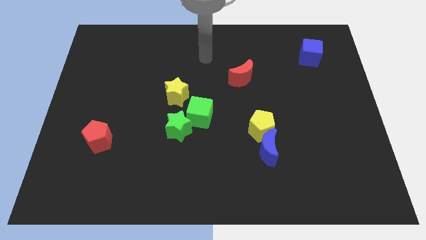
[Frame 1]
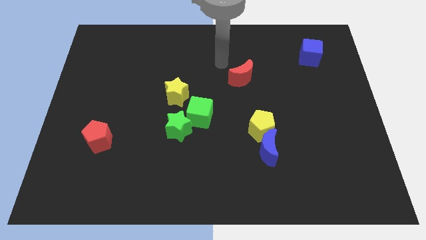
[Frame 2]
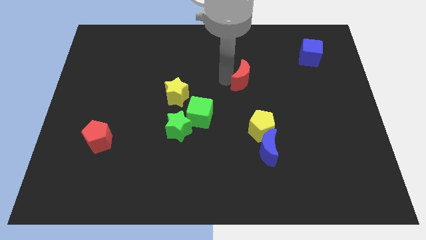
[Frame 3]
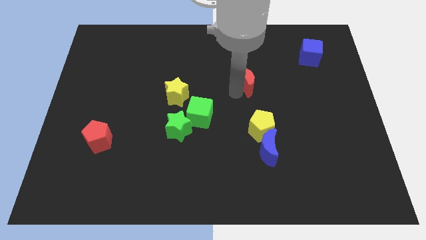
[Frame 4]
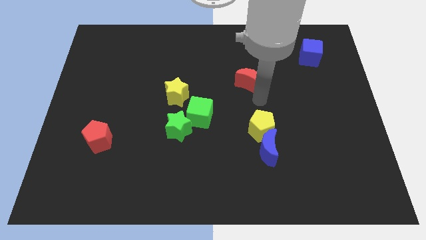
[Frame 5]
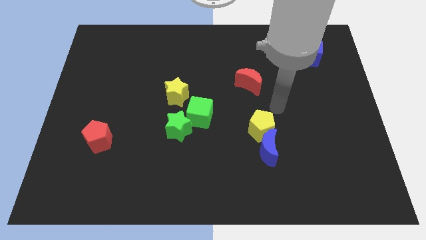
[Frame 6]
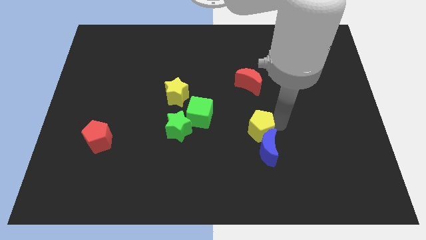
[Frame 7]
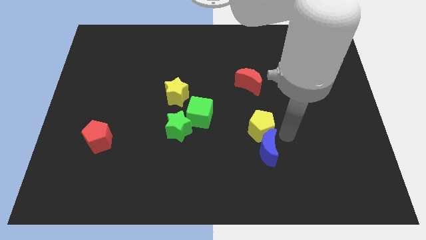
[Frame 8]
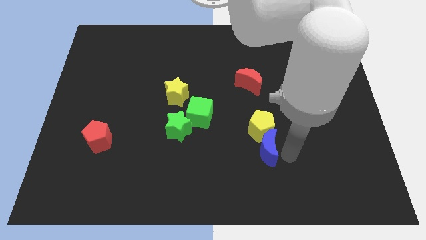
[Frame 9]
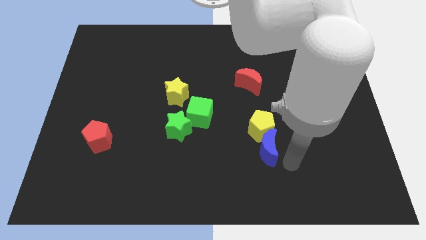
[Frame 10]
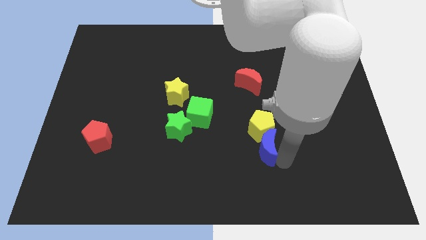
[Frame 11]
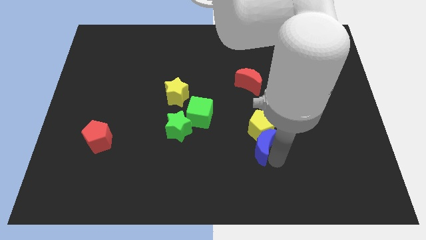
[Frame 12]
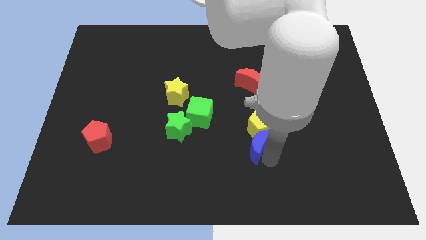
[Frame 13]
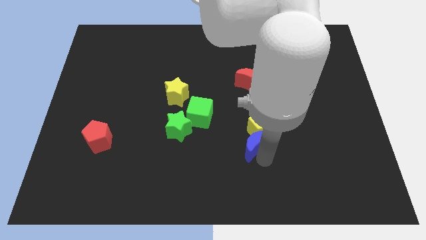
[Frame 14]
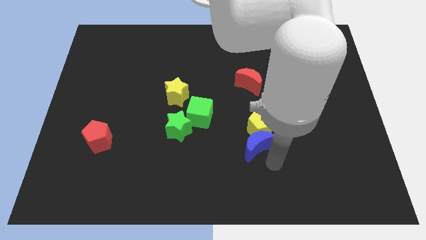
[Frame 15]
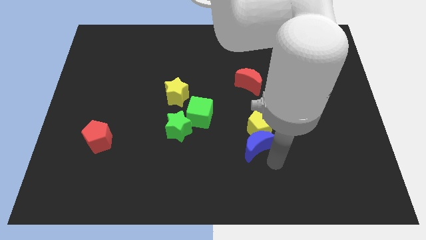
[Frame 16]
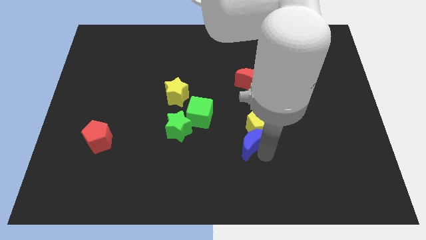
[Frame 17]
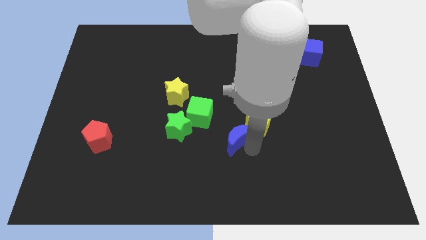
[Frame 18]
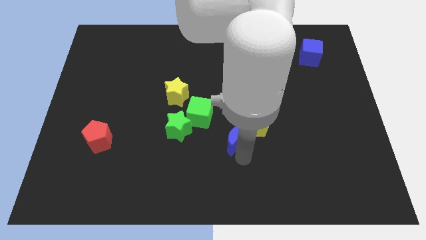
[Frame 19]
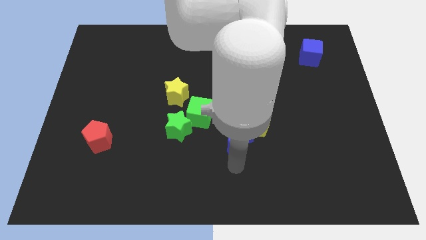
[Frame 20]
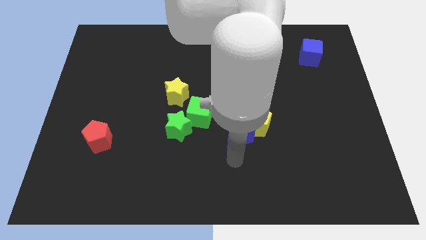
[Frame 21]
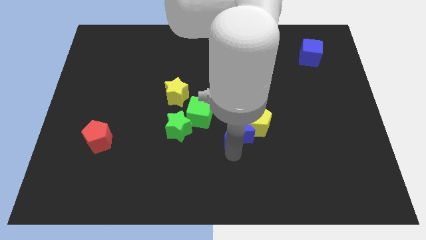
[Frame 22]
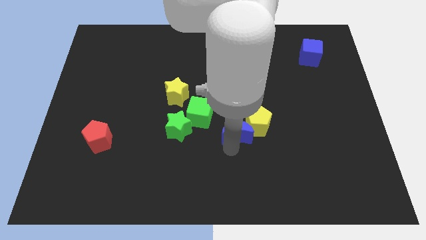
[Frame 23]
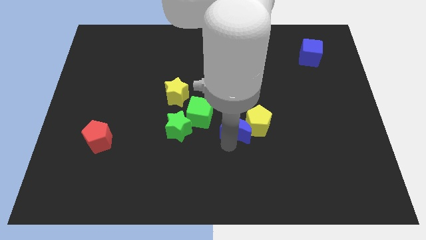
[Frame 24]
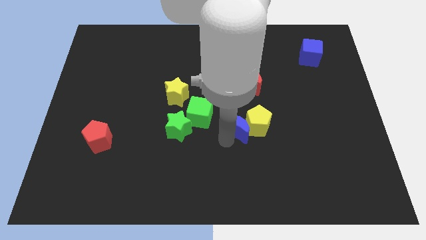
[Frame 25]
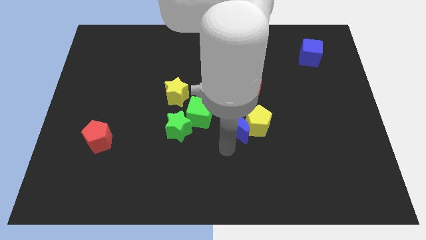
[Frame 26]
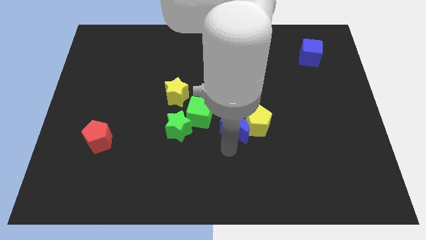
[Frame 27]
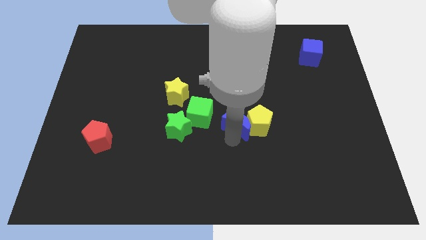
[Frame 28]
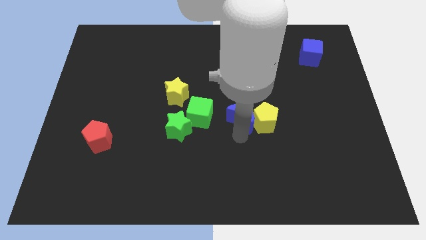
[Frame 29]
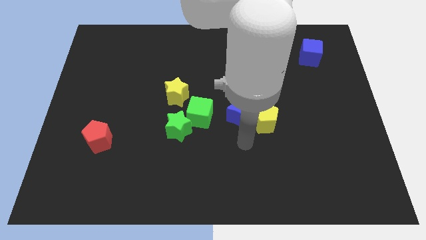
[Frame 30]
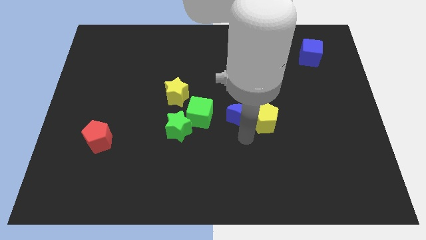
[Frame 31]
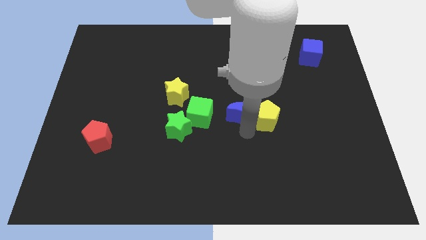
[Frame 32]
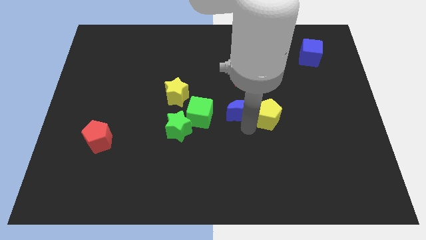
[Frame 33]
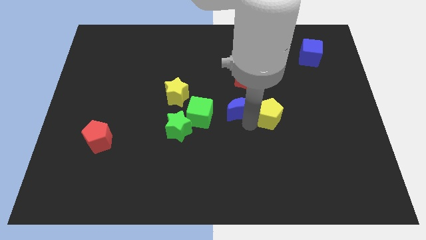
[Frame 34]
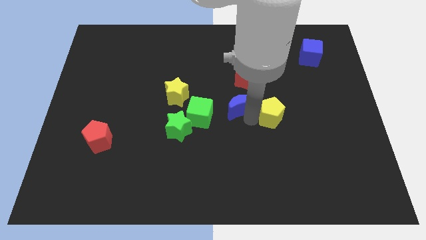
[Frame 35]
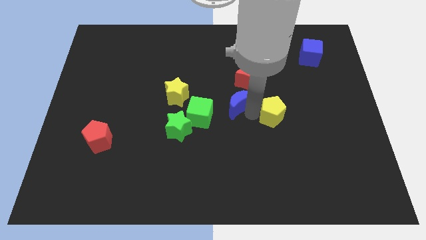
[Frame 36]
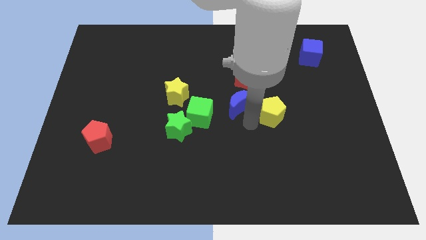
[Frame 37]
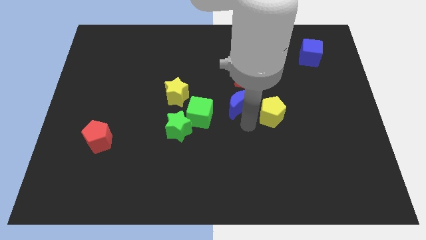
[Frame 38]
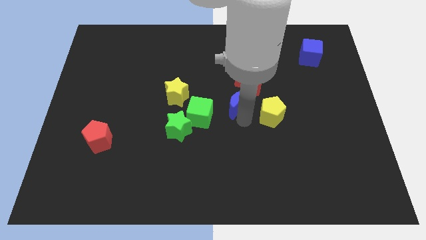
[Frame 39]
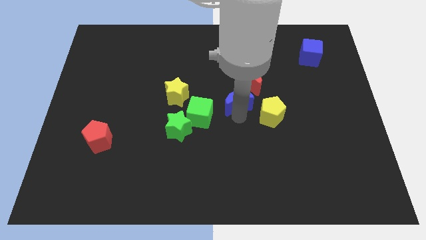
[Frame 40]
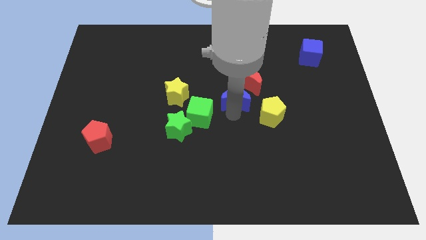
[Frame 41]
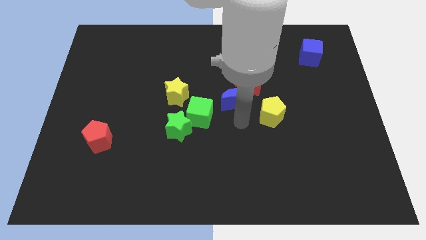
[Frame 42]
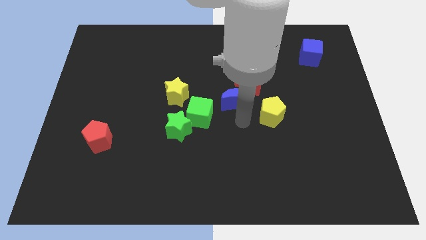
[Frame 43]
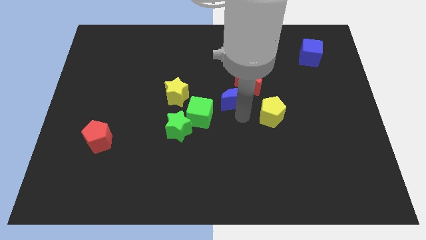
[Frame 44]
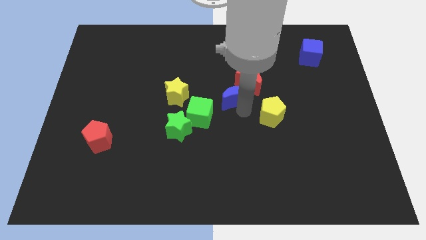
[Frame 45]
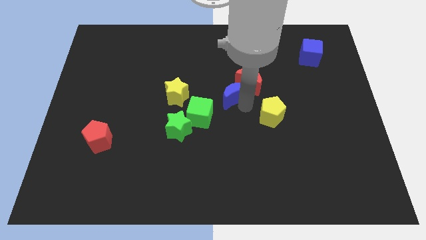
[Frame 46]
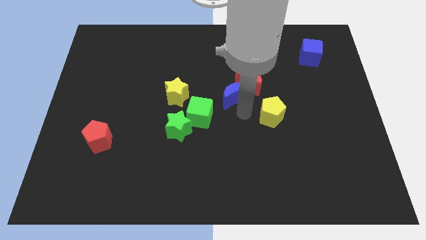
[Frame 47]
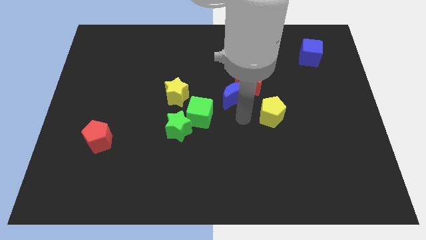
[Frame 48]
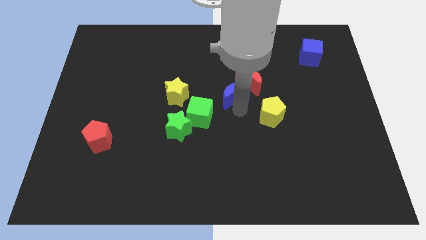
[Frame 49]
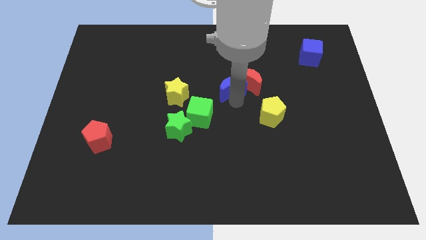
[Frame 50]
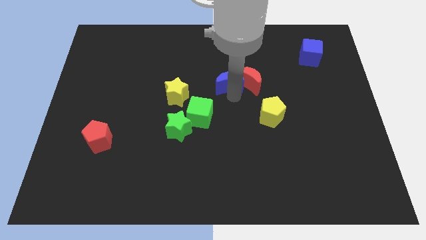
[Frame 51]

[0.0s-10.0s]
move the blue moon to the top left side of the red moon

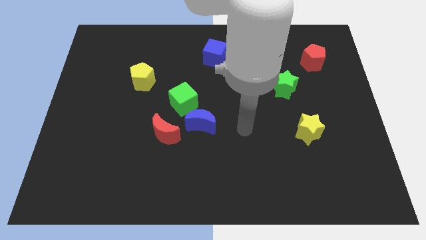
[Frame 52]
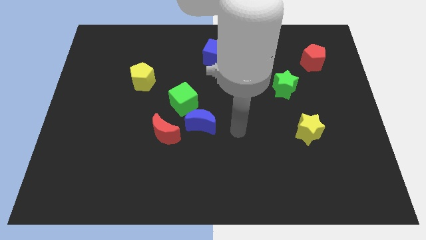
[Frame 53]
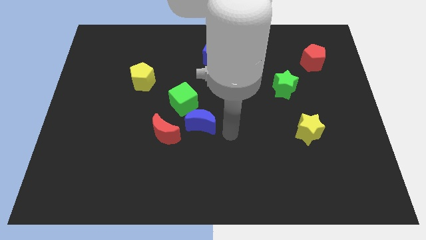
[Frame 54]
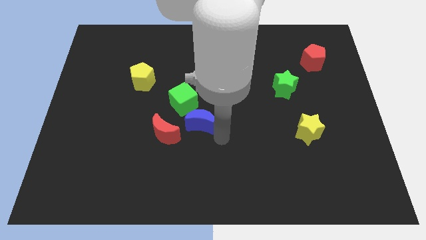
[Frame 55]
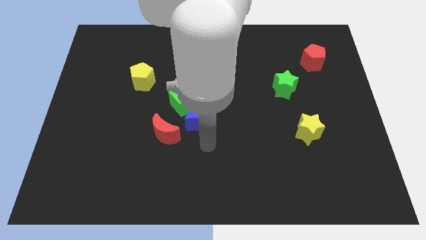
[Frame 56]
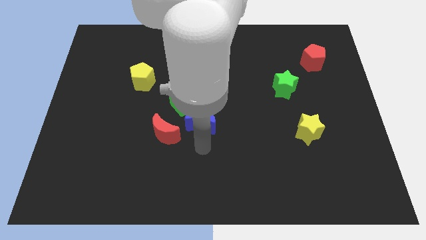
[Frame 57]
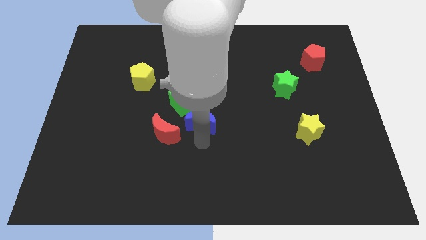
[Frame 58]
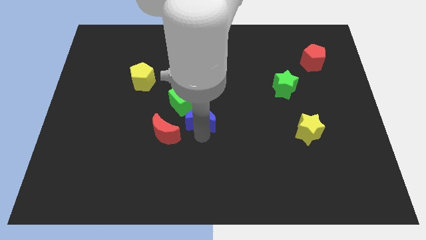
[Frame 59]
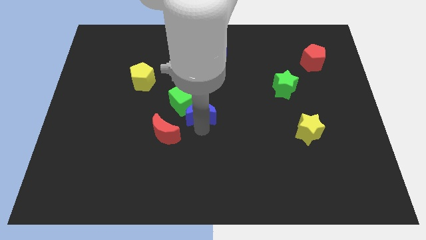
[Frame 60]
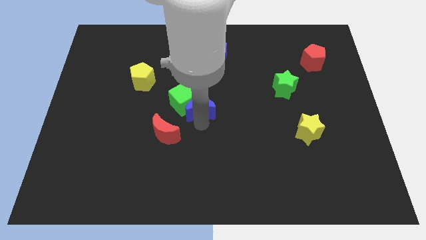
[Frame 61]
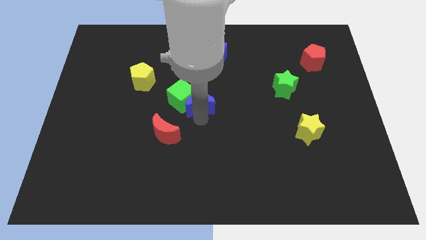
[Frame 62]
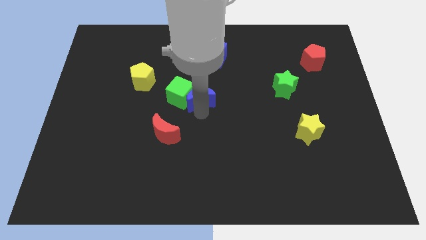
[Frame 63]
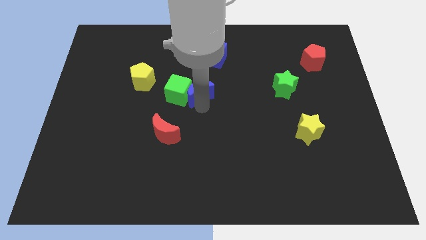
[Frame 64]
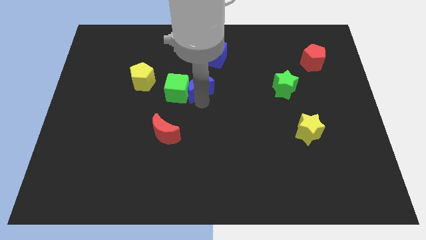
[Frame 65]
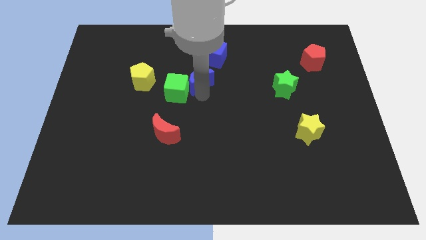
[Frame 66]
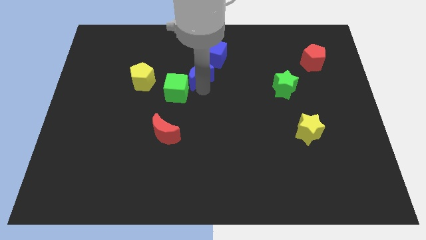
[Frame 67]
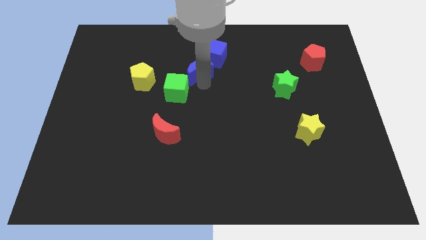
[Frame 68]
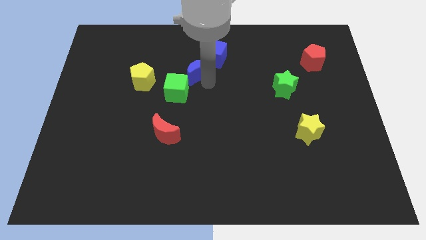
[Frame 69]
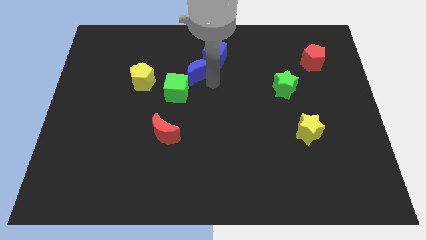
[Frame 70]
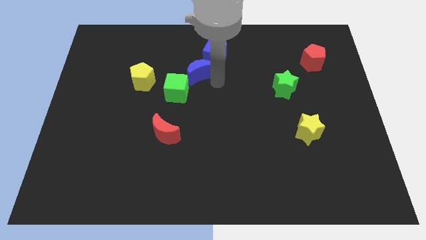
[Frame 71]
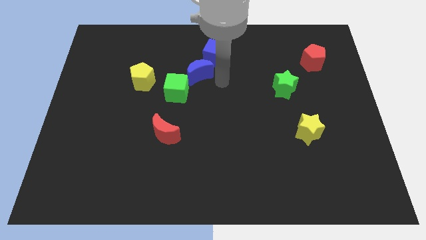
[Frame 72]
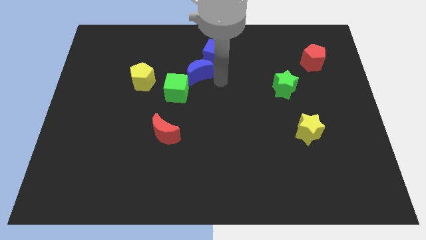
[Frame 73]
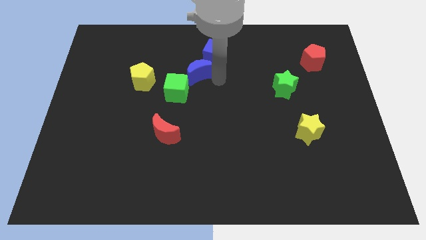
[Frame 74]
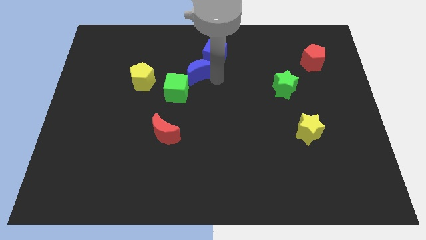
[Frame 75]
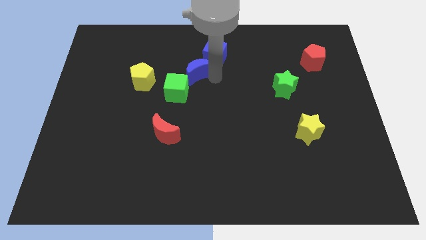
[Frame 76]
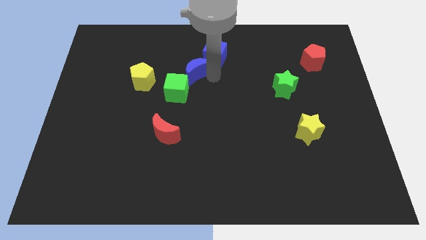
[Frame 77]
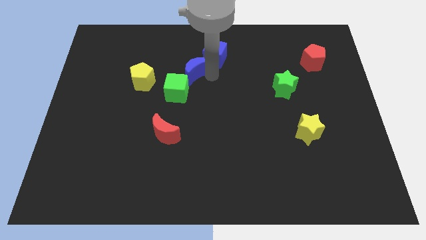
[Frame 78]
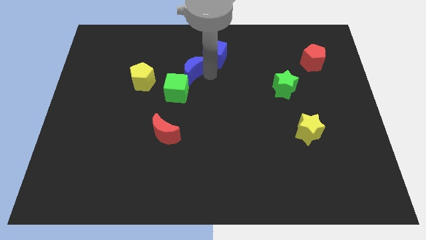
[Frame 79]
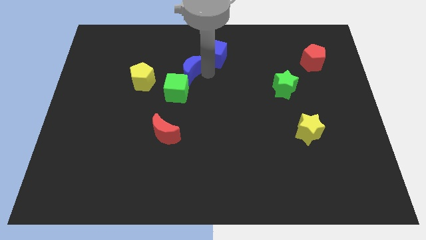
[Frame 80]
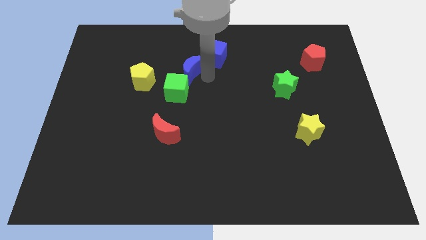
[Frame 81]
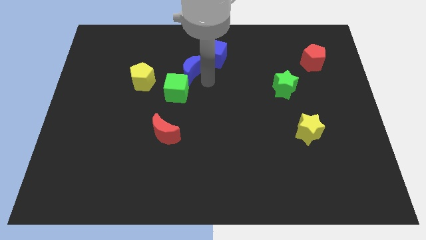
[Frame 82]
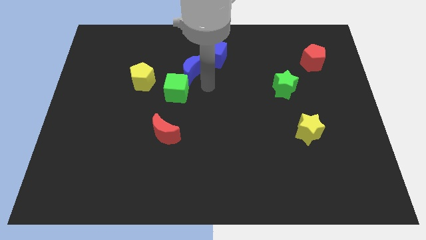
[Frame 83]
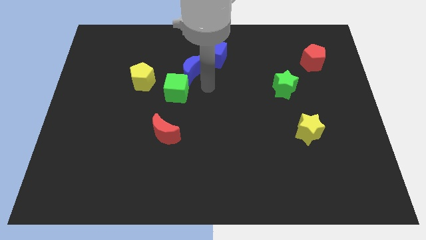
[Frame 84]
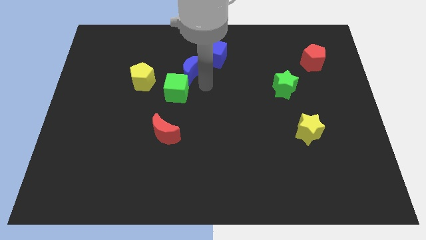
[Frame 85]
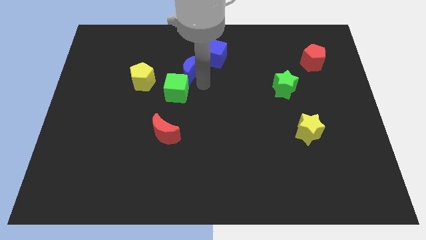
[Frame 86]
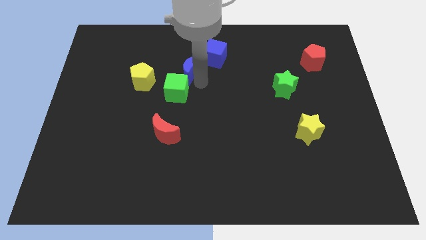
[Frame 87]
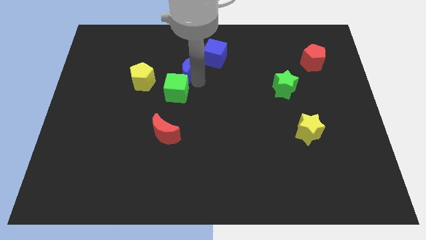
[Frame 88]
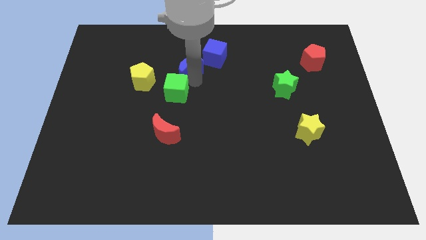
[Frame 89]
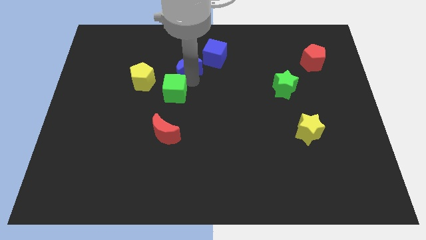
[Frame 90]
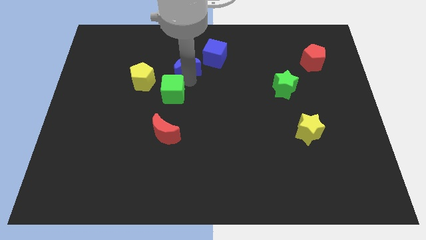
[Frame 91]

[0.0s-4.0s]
put the blue moon left of the blue cube
